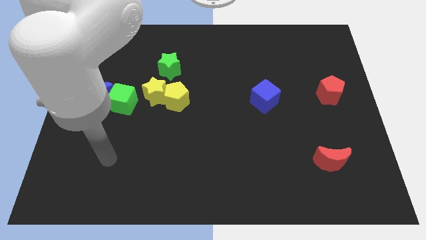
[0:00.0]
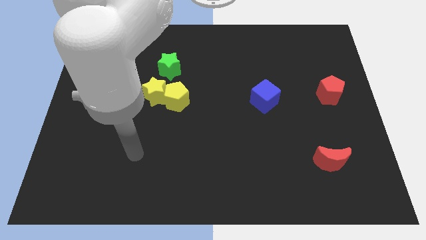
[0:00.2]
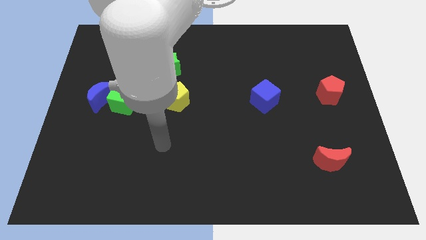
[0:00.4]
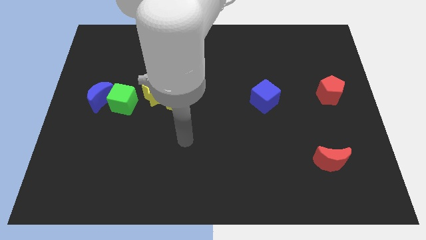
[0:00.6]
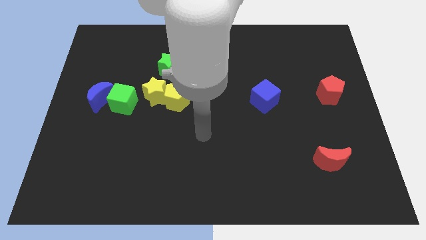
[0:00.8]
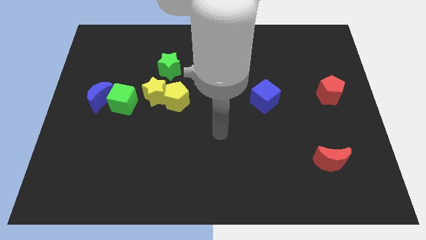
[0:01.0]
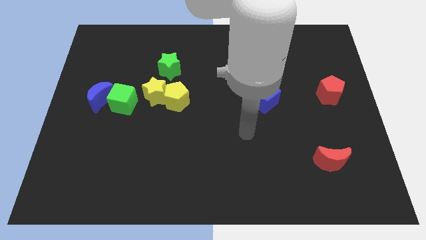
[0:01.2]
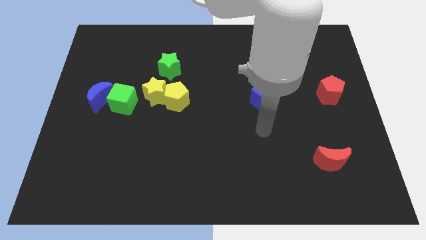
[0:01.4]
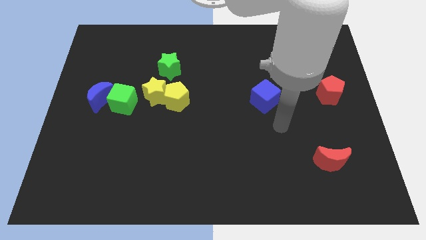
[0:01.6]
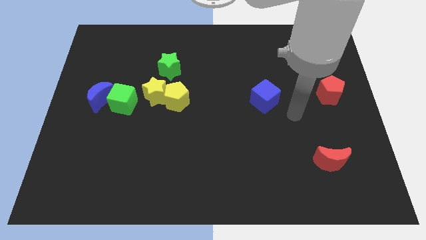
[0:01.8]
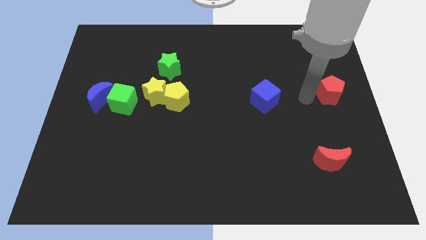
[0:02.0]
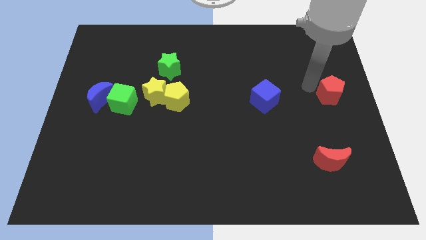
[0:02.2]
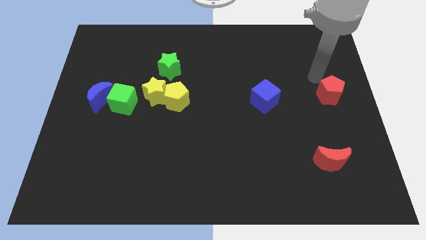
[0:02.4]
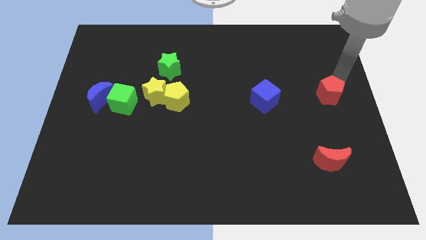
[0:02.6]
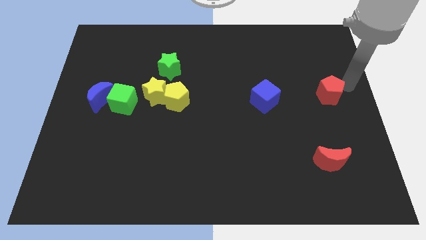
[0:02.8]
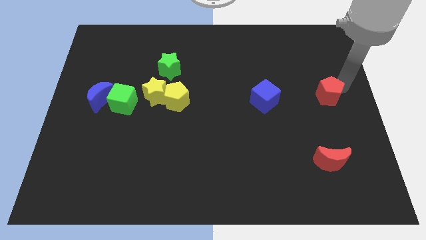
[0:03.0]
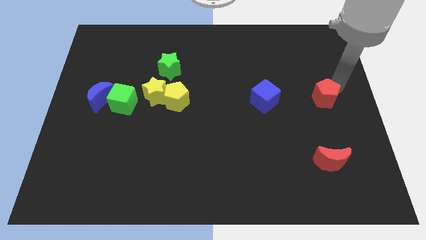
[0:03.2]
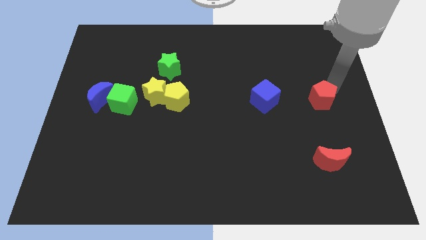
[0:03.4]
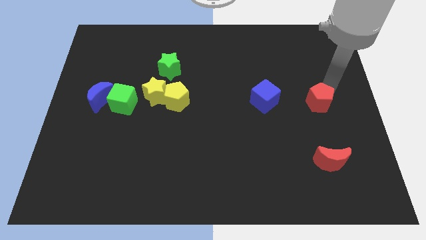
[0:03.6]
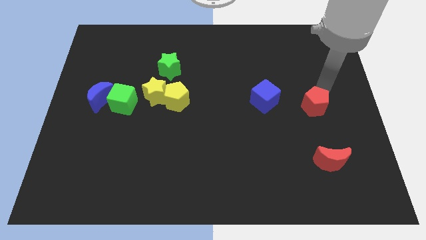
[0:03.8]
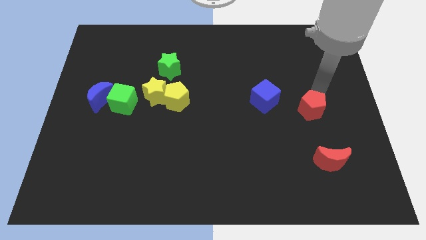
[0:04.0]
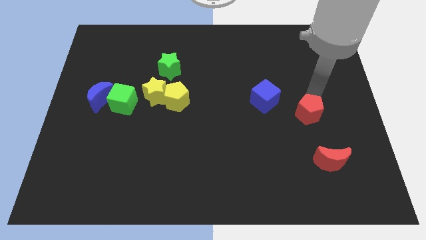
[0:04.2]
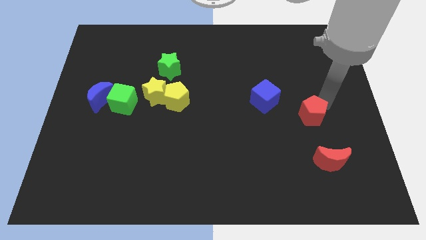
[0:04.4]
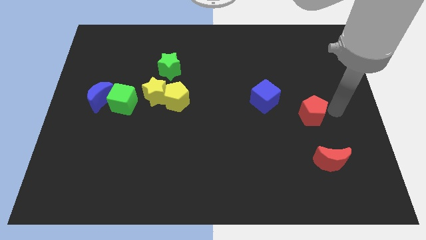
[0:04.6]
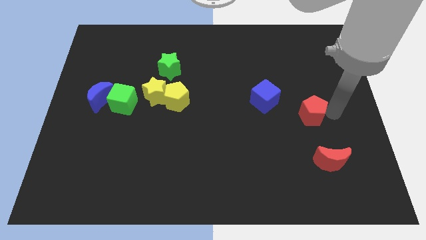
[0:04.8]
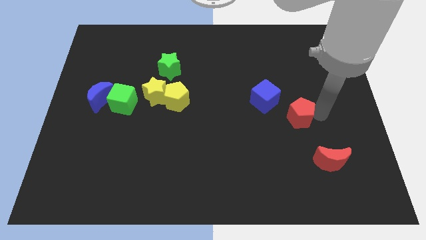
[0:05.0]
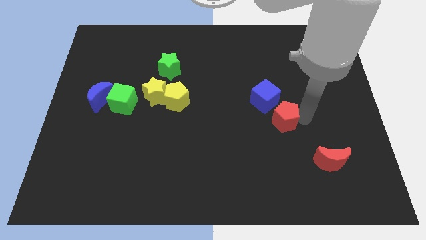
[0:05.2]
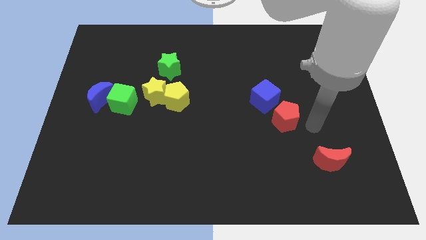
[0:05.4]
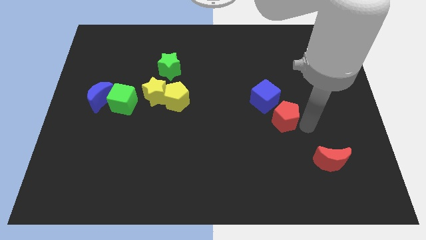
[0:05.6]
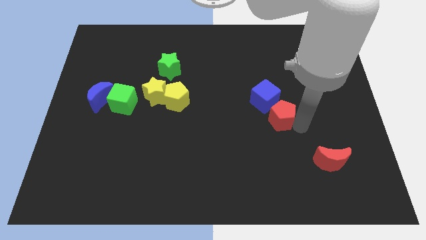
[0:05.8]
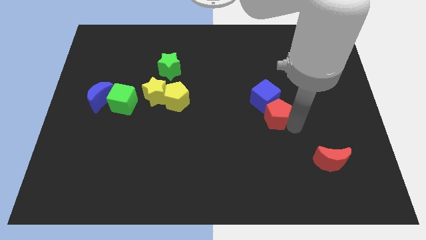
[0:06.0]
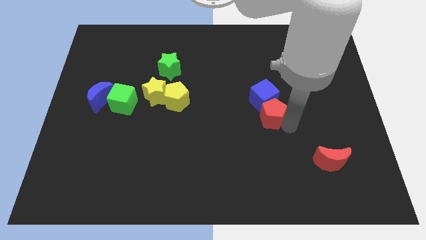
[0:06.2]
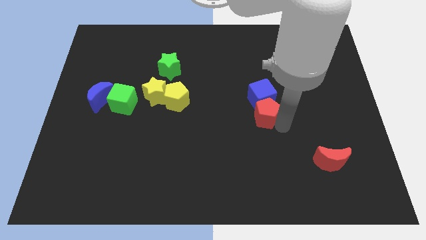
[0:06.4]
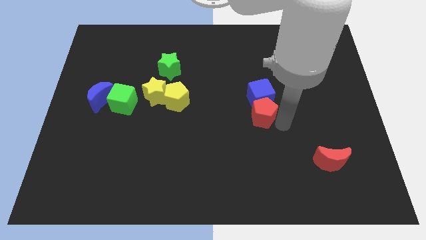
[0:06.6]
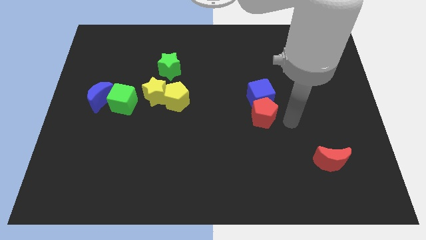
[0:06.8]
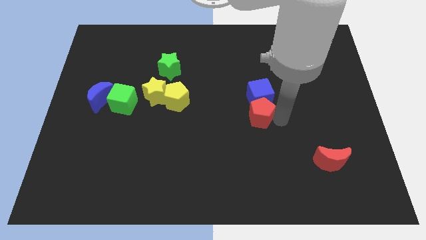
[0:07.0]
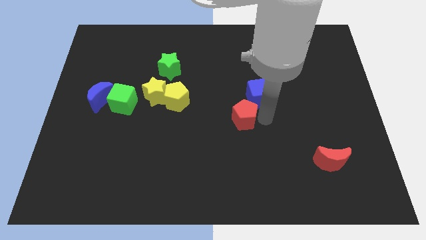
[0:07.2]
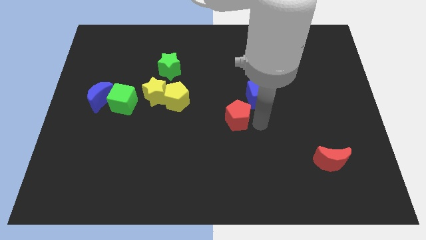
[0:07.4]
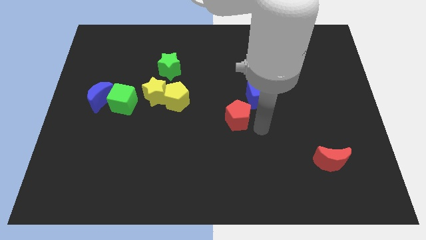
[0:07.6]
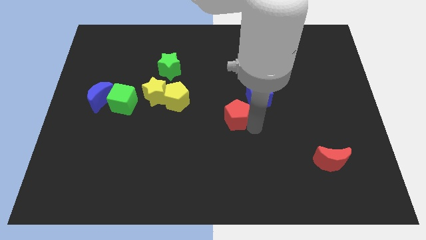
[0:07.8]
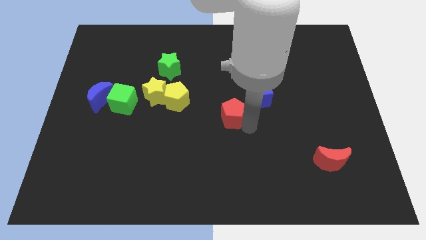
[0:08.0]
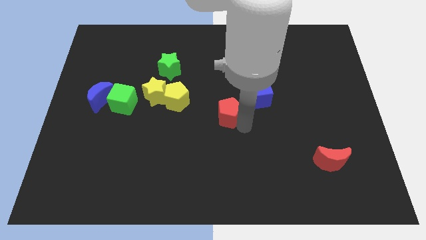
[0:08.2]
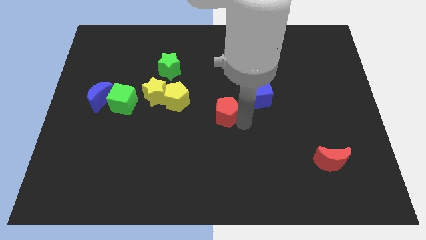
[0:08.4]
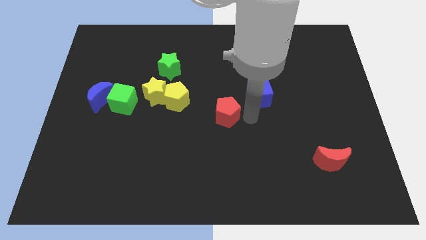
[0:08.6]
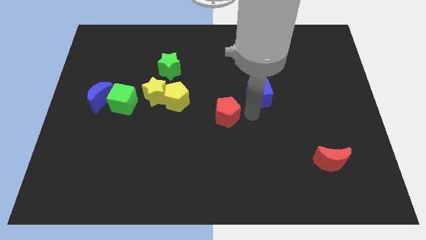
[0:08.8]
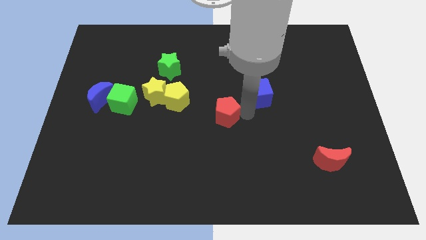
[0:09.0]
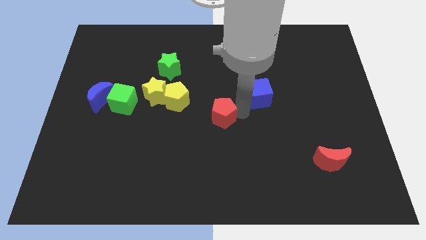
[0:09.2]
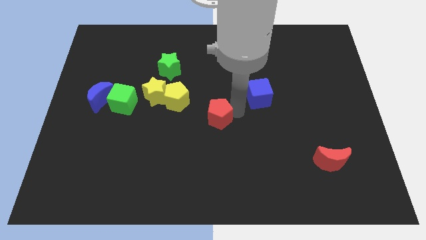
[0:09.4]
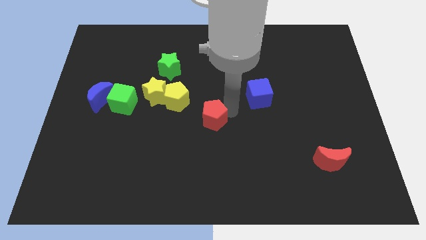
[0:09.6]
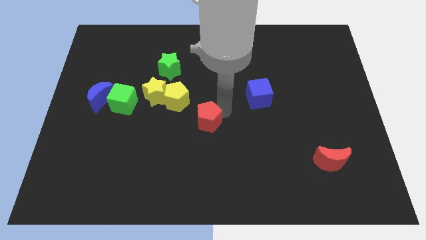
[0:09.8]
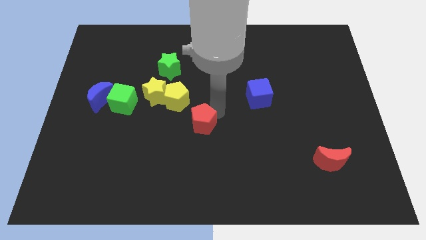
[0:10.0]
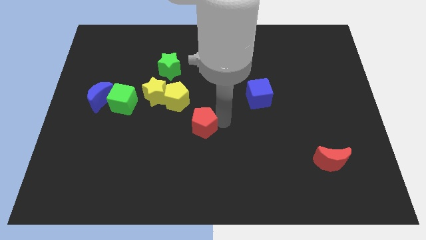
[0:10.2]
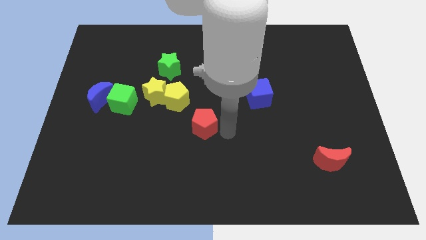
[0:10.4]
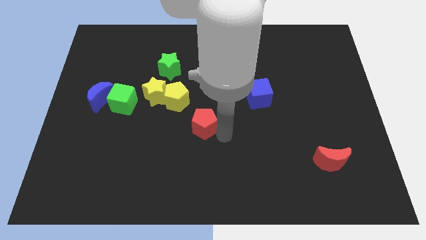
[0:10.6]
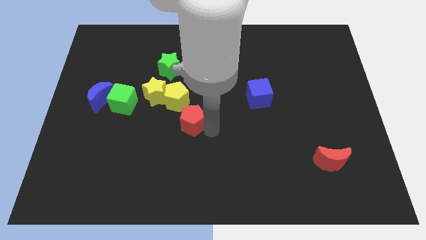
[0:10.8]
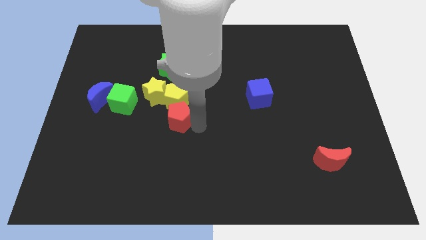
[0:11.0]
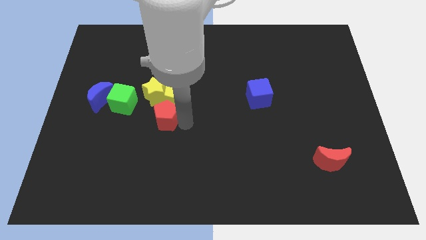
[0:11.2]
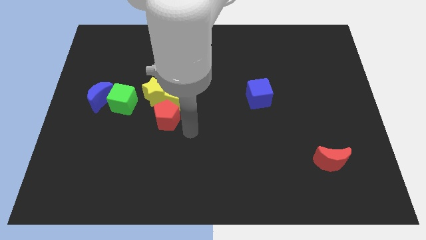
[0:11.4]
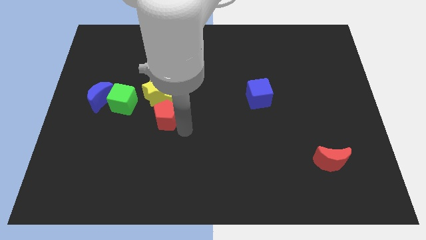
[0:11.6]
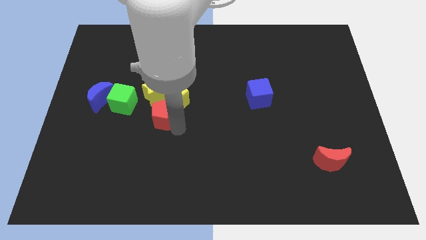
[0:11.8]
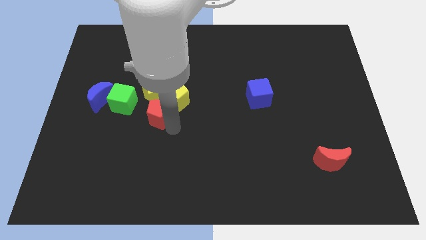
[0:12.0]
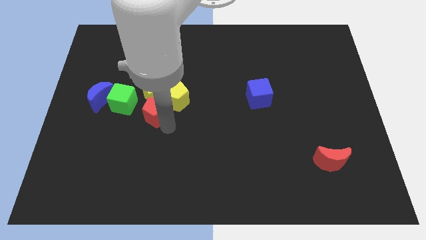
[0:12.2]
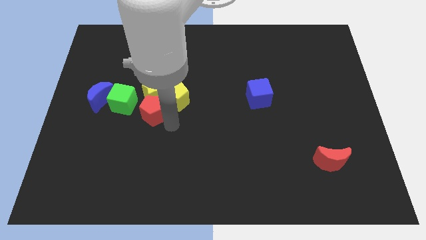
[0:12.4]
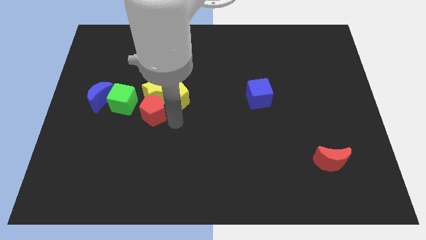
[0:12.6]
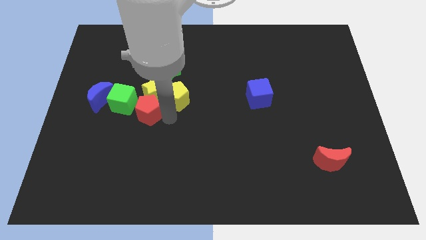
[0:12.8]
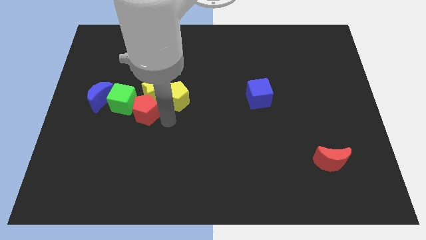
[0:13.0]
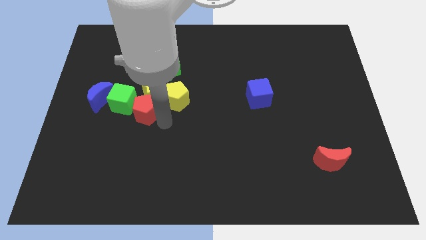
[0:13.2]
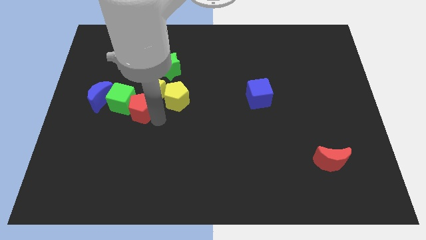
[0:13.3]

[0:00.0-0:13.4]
move the red pentagon close to the green cube
